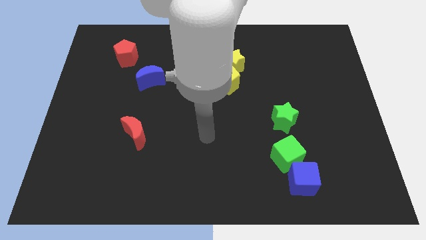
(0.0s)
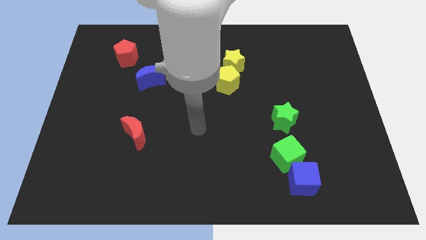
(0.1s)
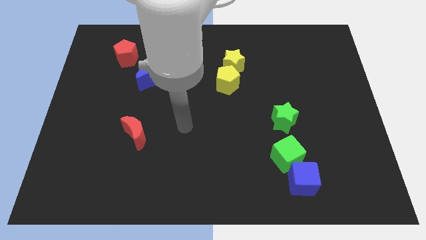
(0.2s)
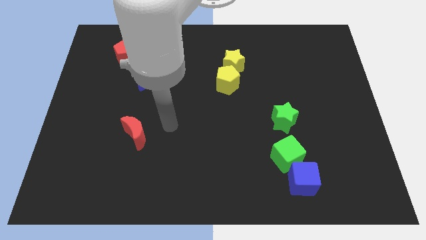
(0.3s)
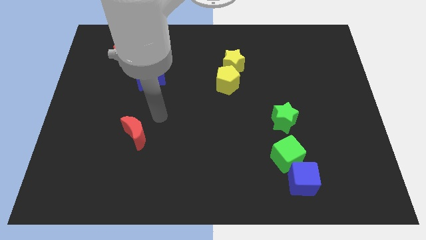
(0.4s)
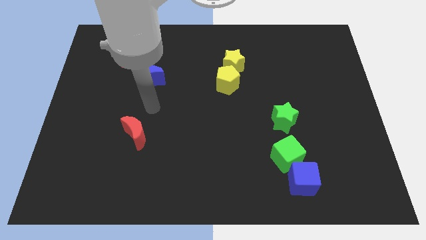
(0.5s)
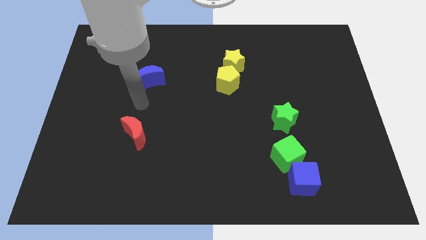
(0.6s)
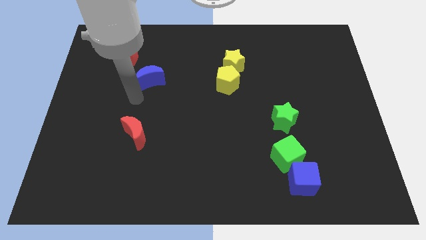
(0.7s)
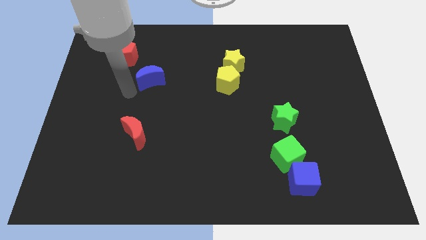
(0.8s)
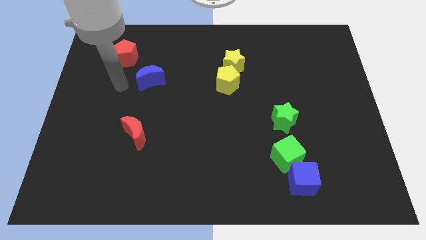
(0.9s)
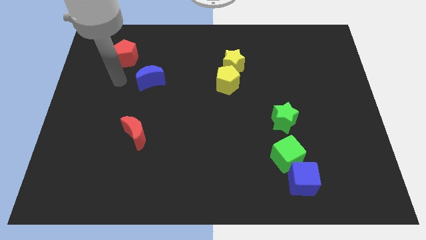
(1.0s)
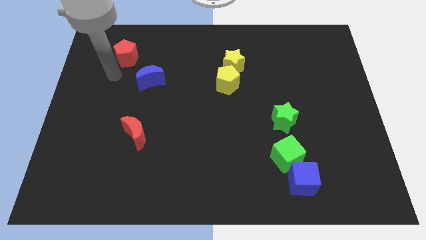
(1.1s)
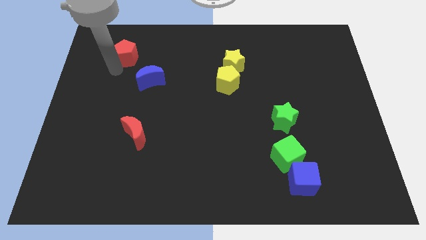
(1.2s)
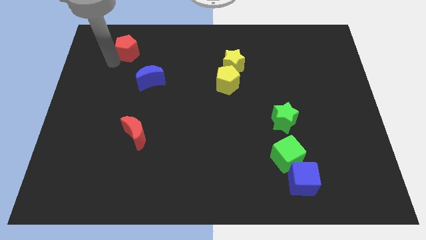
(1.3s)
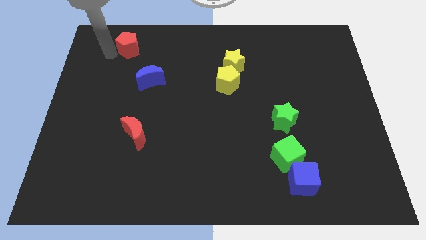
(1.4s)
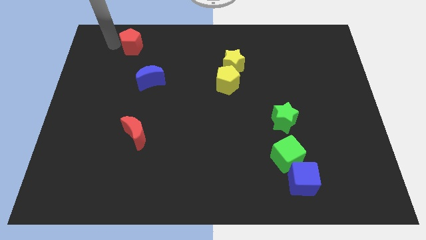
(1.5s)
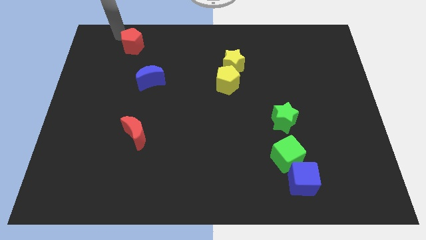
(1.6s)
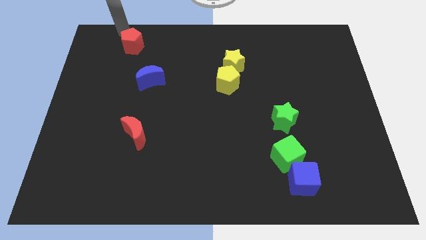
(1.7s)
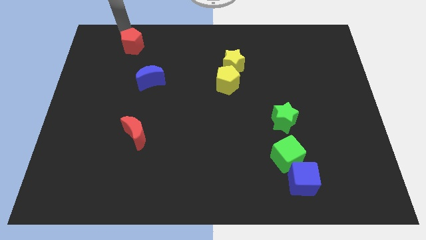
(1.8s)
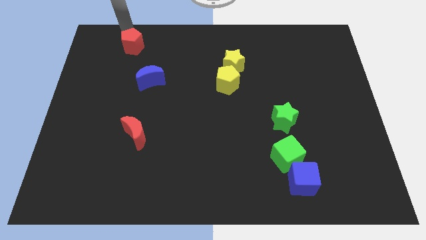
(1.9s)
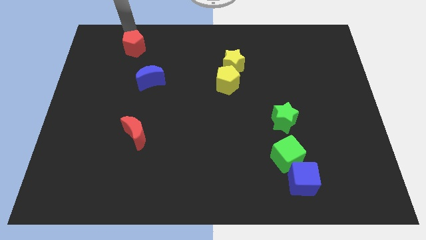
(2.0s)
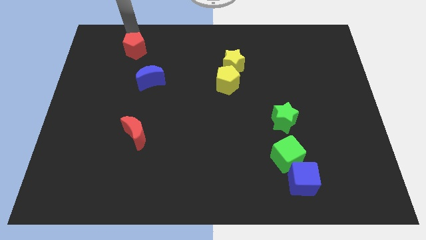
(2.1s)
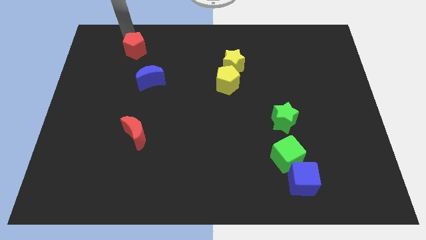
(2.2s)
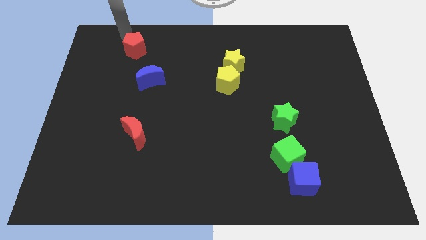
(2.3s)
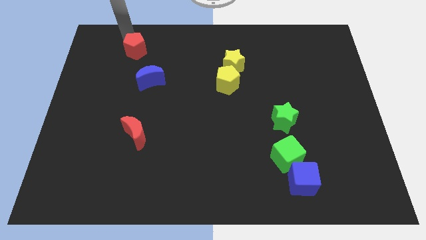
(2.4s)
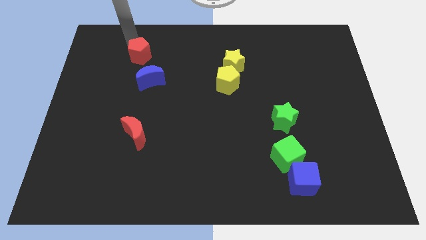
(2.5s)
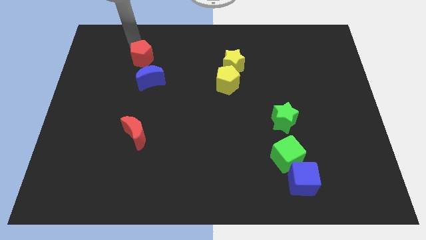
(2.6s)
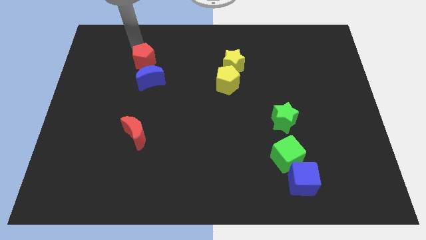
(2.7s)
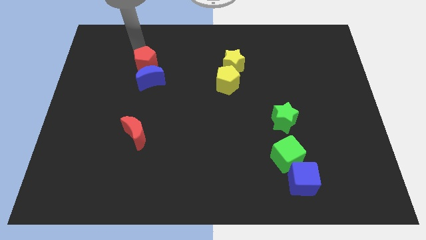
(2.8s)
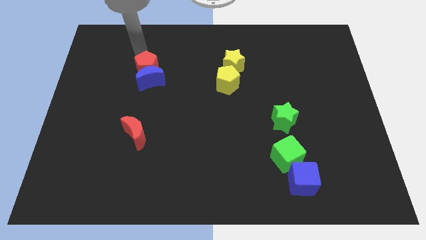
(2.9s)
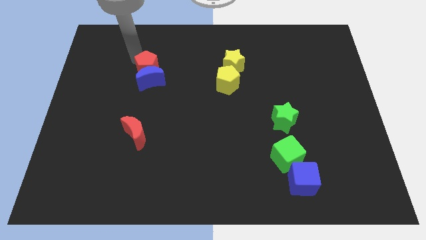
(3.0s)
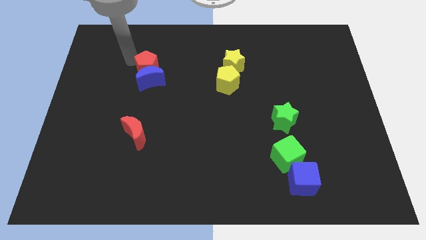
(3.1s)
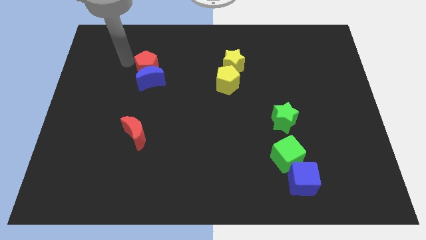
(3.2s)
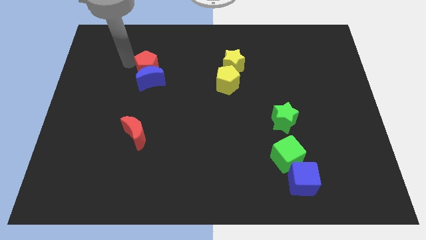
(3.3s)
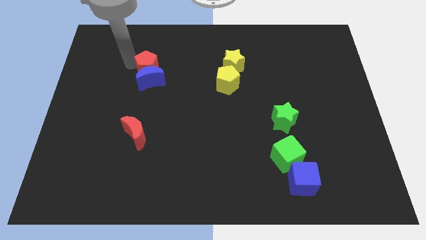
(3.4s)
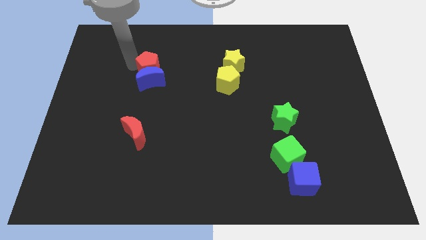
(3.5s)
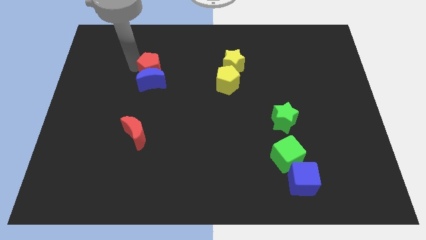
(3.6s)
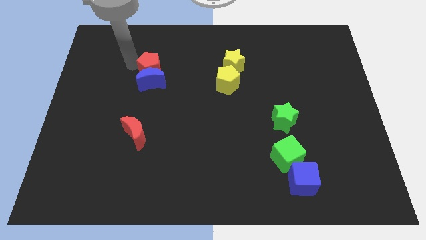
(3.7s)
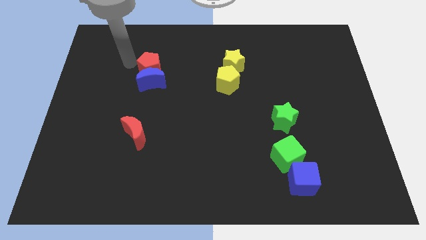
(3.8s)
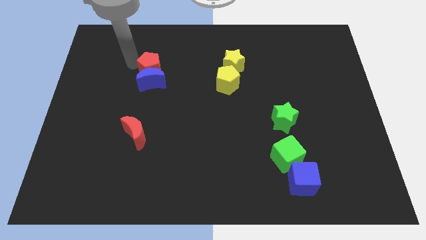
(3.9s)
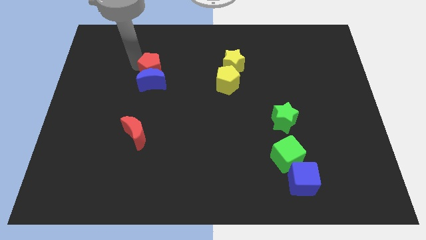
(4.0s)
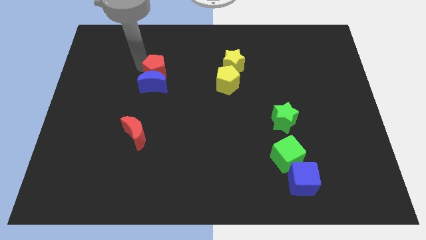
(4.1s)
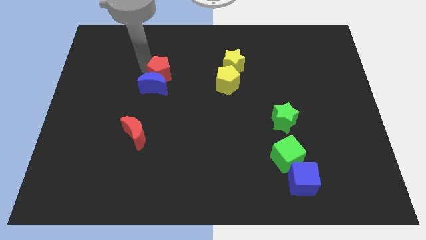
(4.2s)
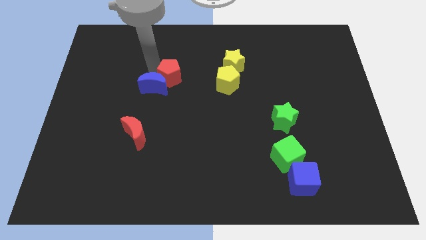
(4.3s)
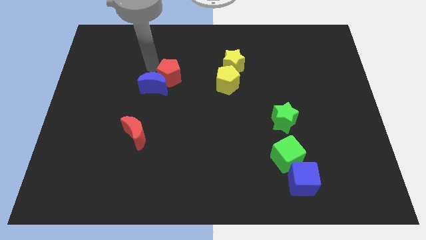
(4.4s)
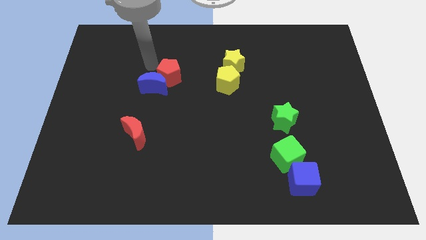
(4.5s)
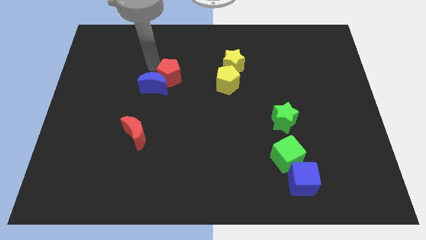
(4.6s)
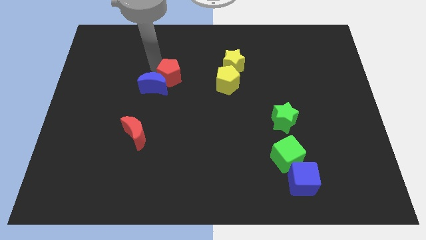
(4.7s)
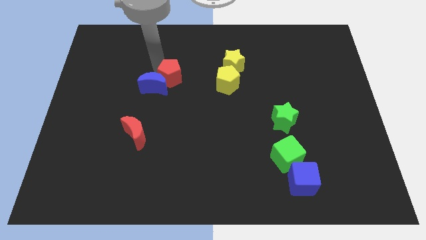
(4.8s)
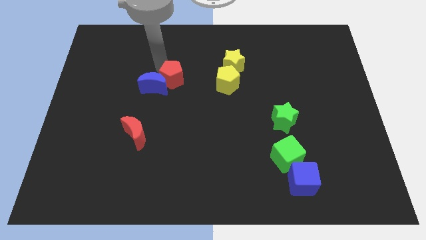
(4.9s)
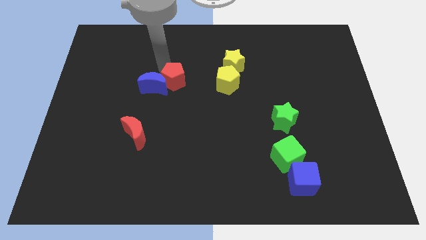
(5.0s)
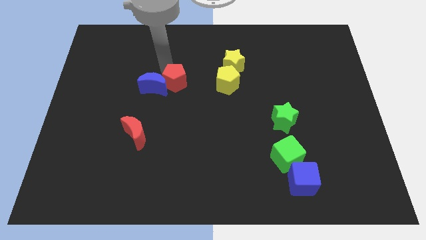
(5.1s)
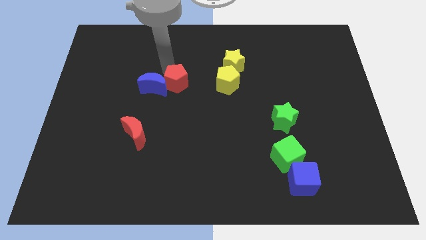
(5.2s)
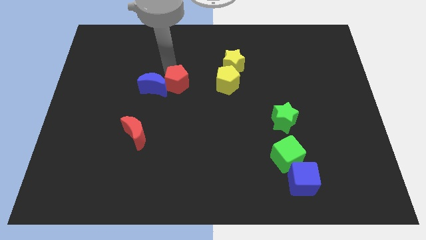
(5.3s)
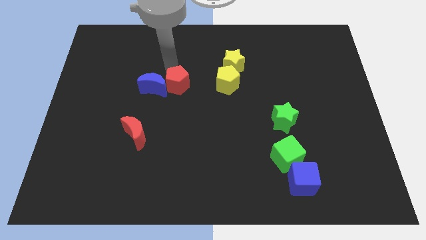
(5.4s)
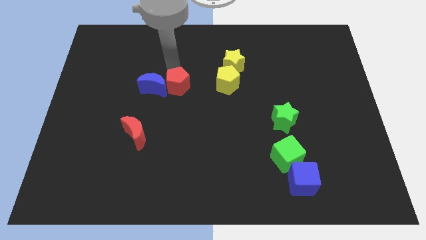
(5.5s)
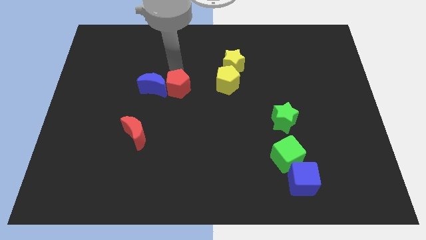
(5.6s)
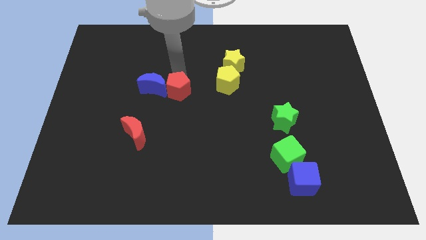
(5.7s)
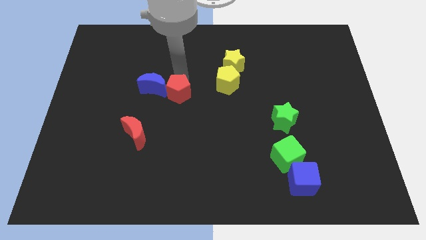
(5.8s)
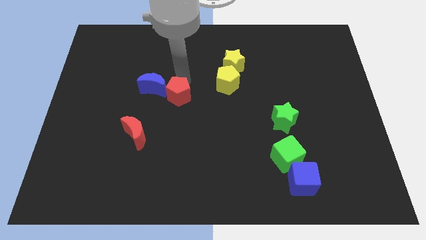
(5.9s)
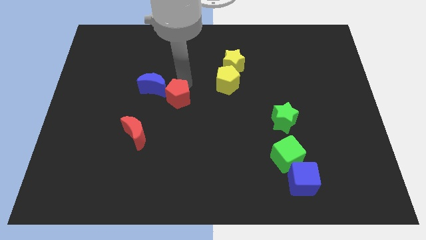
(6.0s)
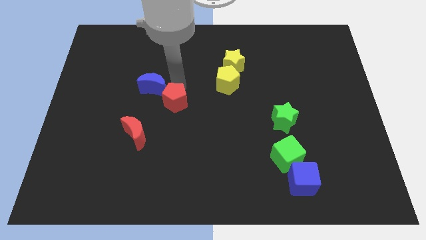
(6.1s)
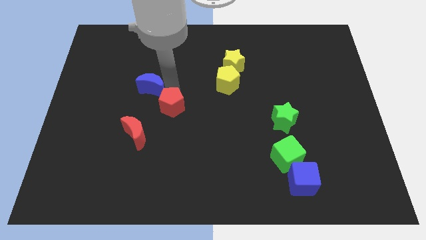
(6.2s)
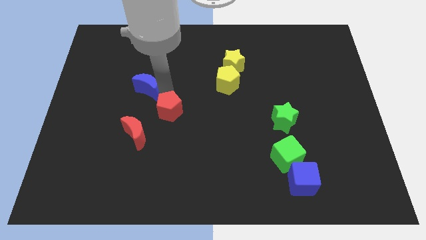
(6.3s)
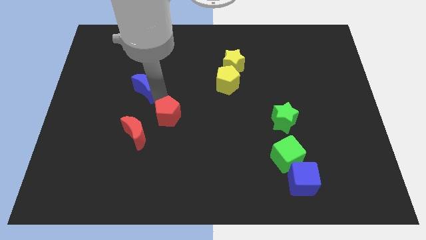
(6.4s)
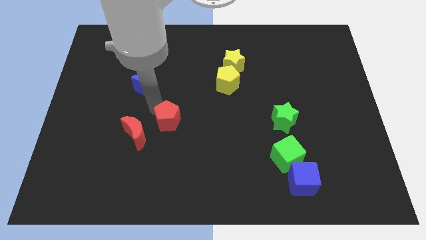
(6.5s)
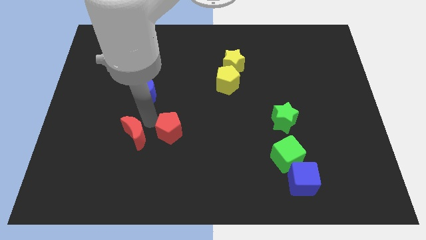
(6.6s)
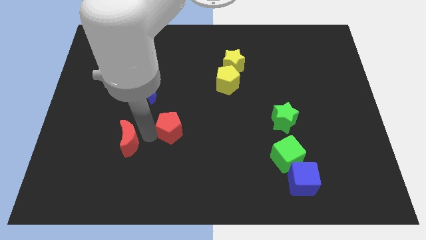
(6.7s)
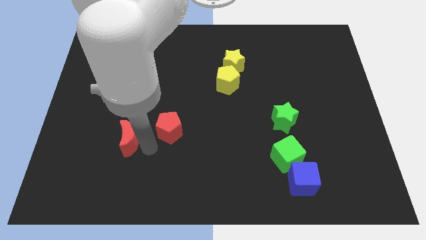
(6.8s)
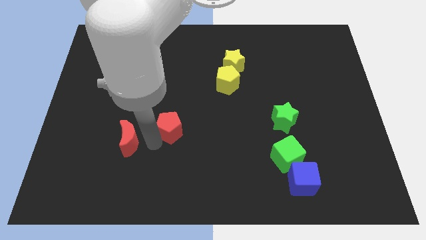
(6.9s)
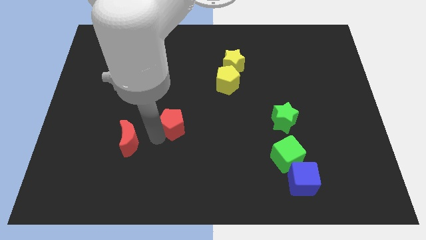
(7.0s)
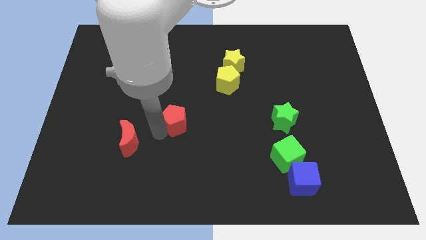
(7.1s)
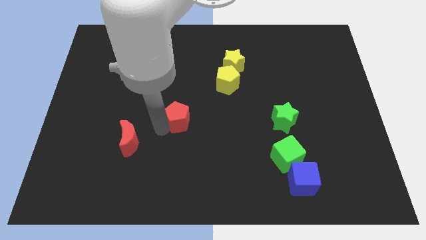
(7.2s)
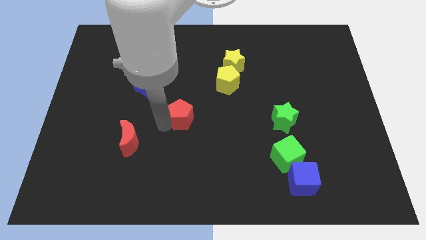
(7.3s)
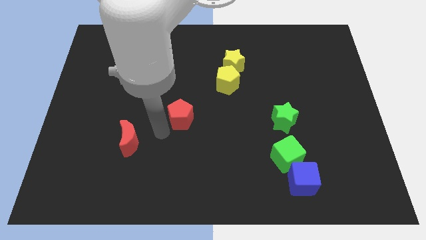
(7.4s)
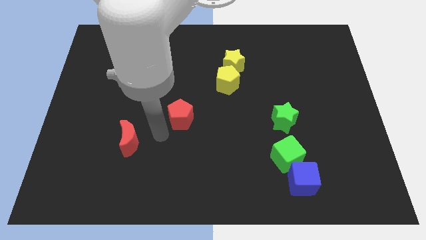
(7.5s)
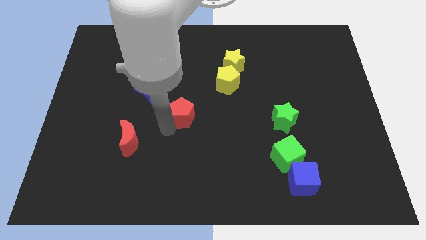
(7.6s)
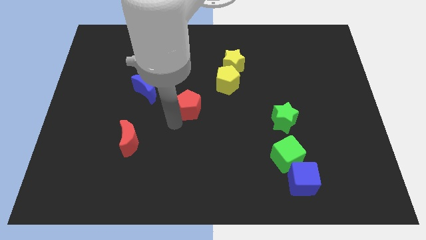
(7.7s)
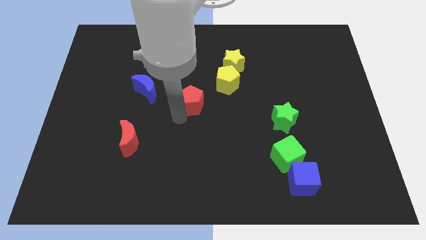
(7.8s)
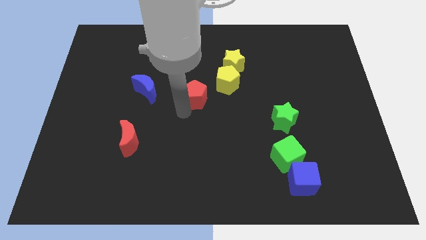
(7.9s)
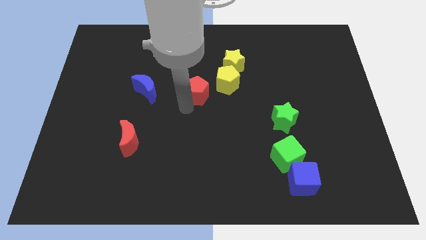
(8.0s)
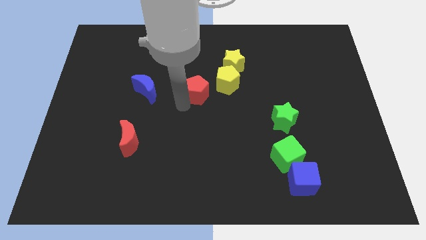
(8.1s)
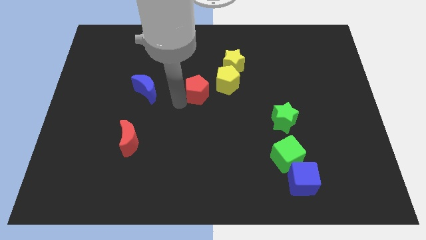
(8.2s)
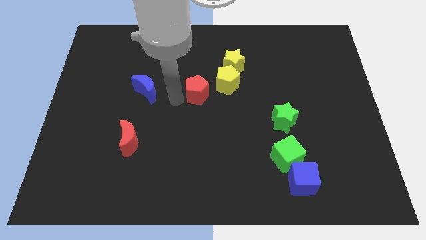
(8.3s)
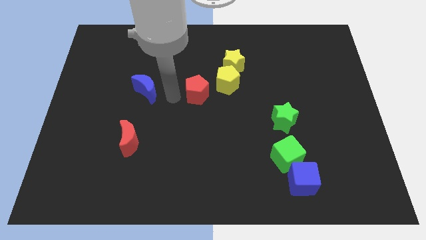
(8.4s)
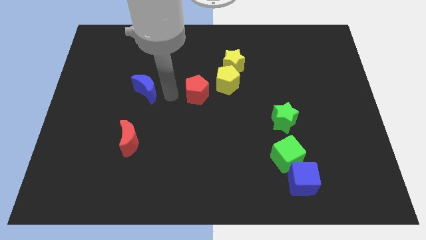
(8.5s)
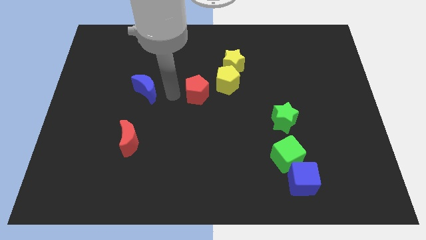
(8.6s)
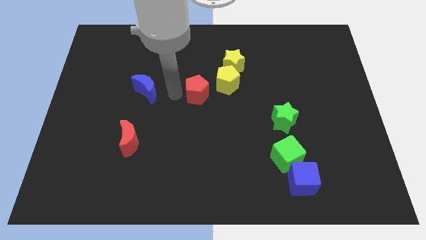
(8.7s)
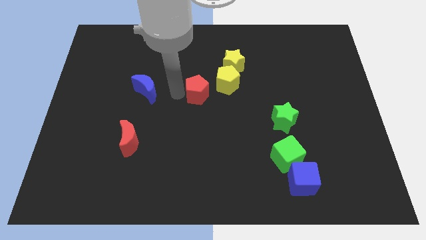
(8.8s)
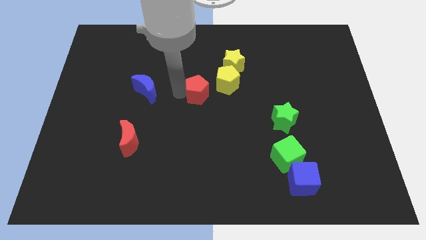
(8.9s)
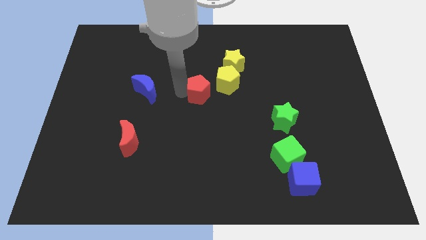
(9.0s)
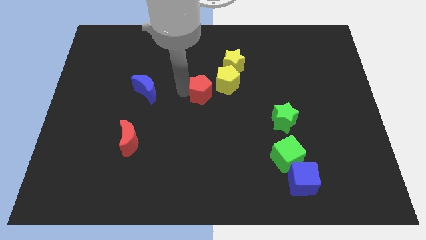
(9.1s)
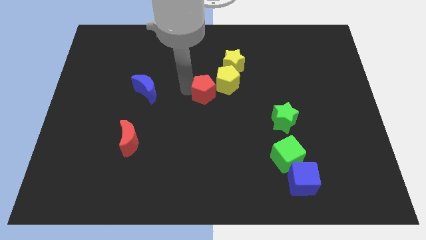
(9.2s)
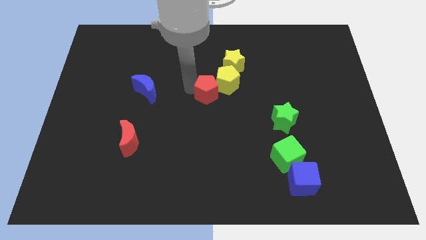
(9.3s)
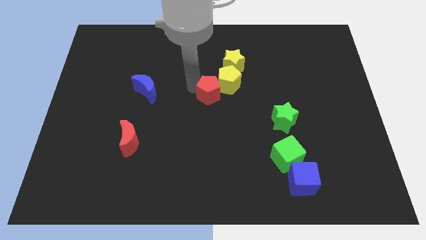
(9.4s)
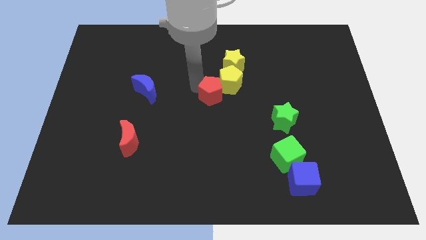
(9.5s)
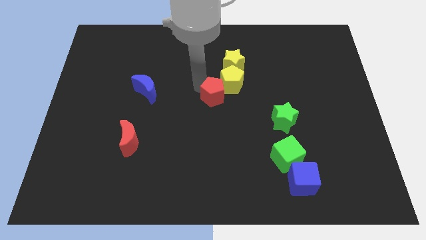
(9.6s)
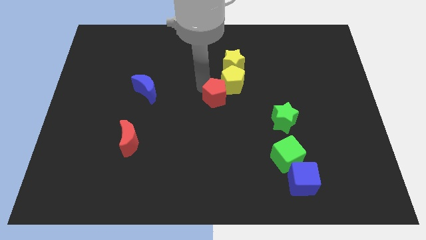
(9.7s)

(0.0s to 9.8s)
move the red pentagon to the bottom of the yellow star
